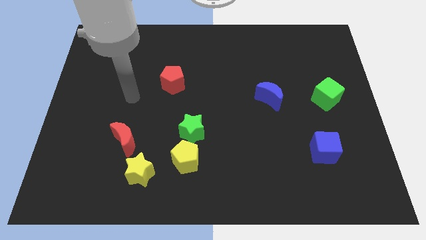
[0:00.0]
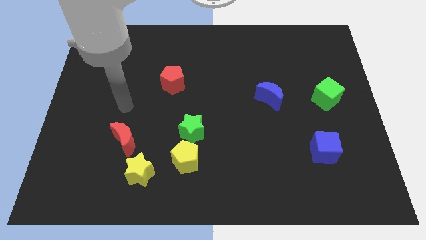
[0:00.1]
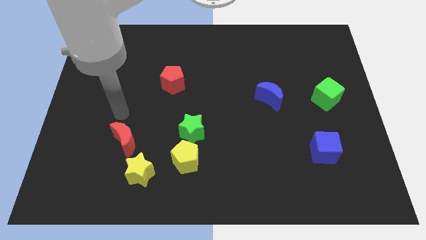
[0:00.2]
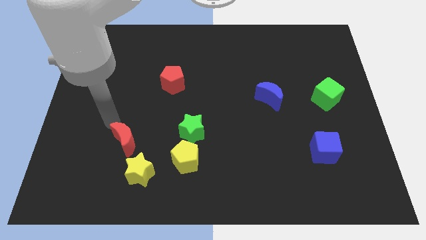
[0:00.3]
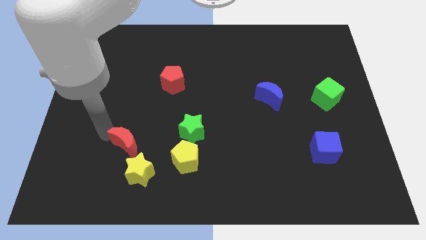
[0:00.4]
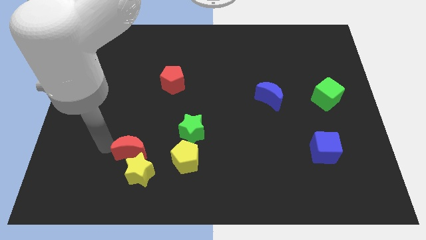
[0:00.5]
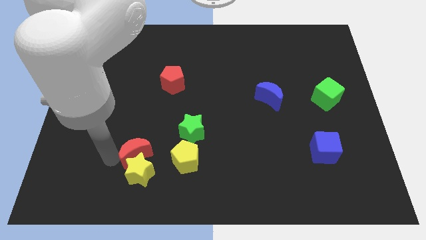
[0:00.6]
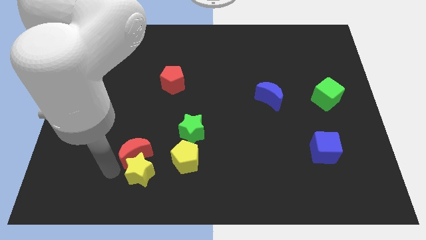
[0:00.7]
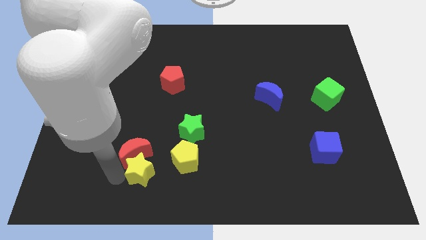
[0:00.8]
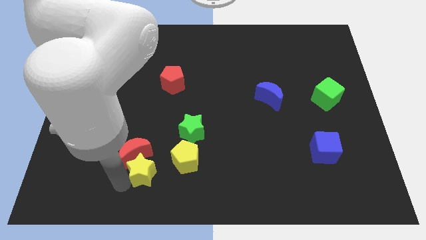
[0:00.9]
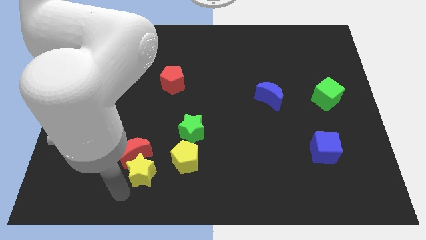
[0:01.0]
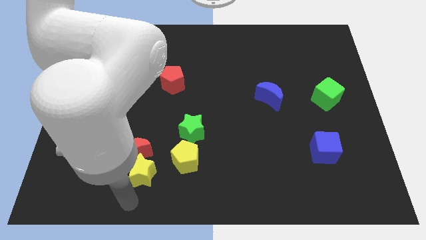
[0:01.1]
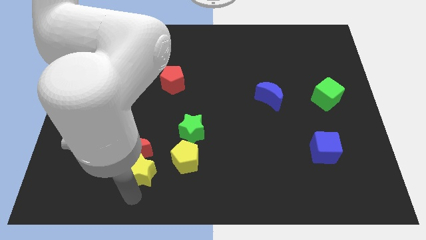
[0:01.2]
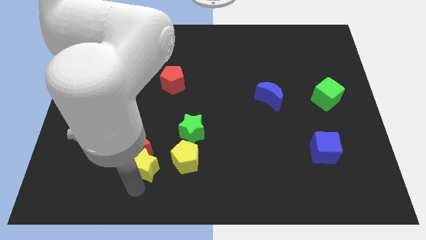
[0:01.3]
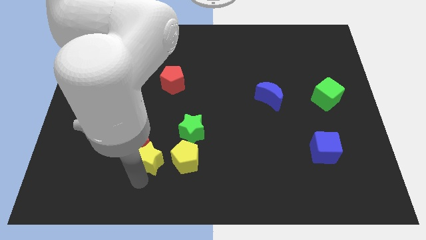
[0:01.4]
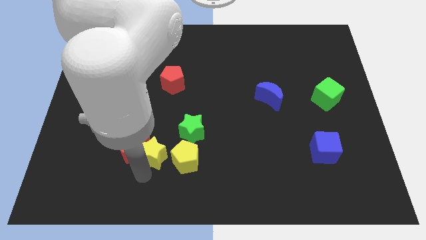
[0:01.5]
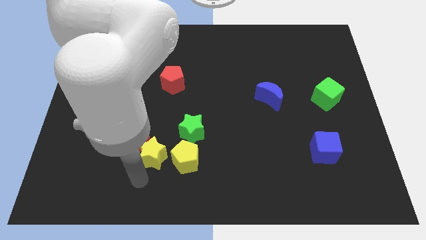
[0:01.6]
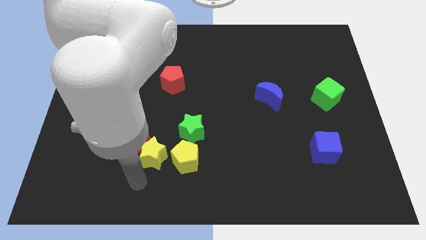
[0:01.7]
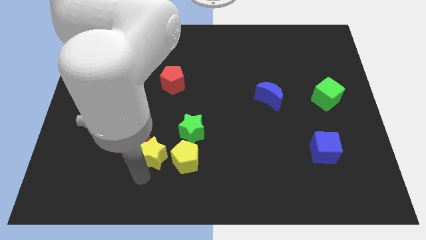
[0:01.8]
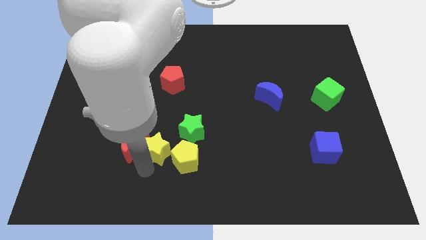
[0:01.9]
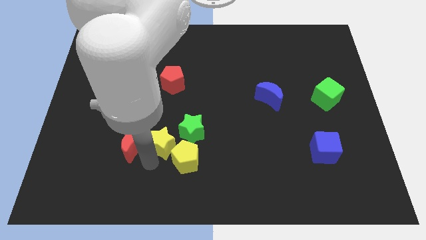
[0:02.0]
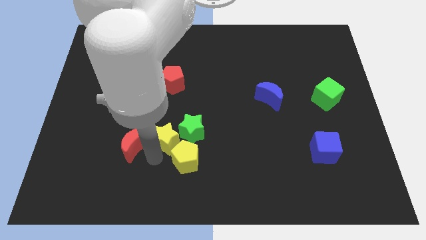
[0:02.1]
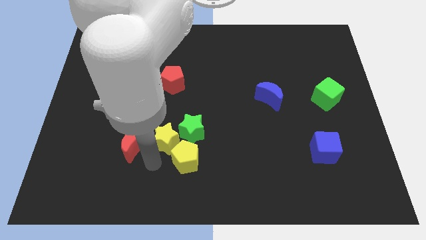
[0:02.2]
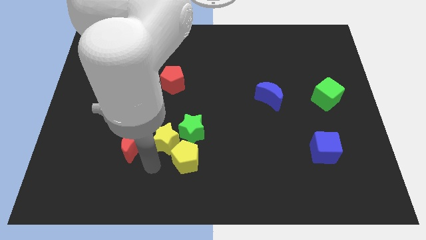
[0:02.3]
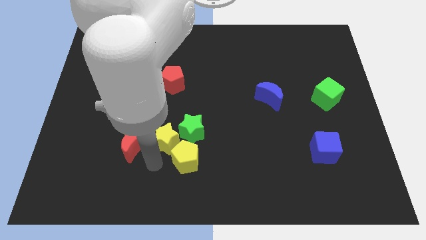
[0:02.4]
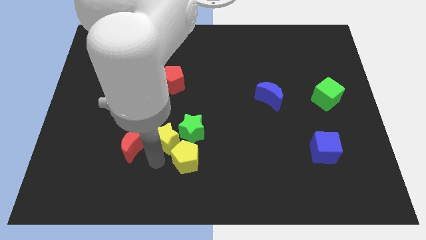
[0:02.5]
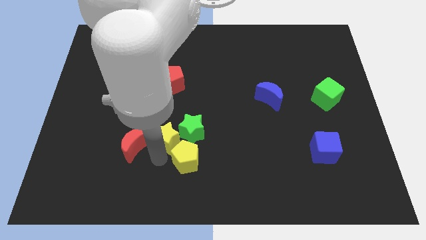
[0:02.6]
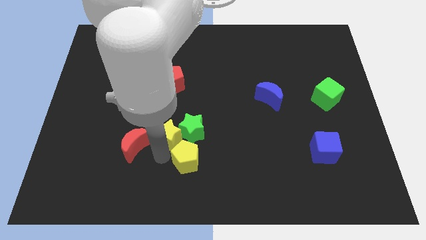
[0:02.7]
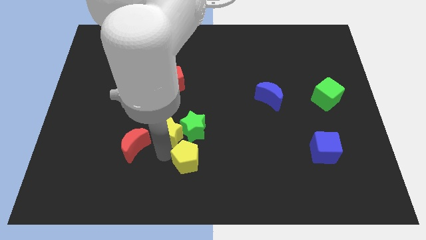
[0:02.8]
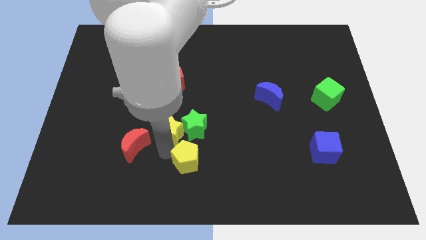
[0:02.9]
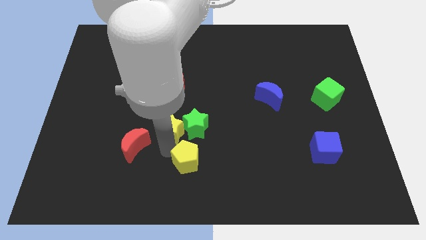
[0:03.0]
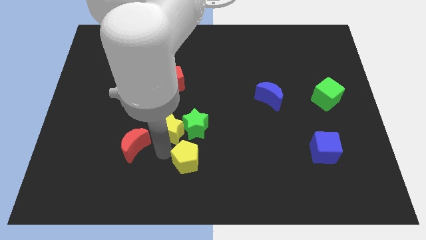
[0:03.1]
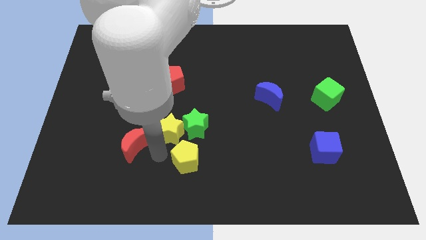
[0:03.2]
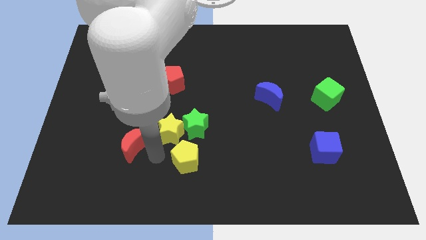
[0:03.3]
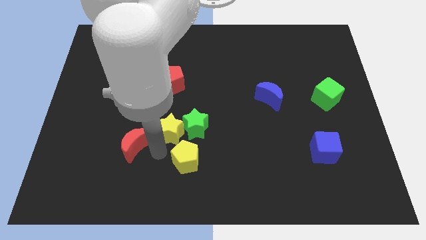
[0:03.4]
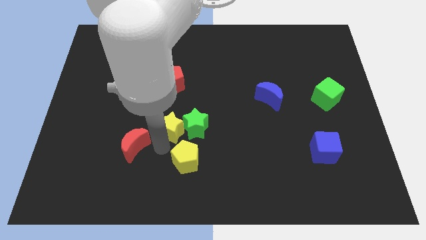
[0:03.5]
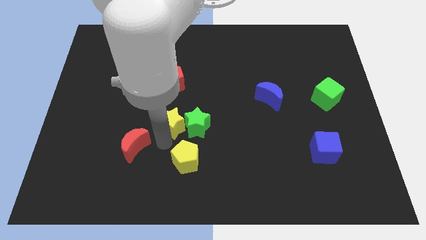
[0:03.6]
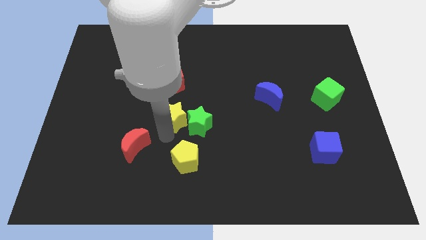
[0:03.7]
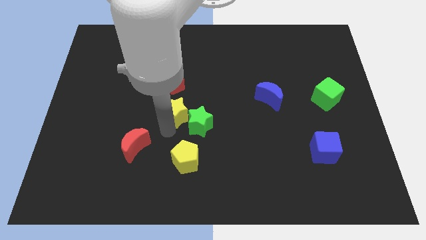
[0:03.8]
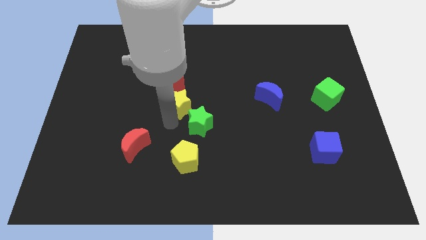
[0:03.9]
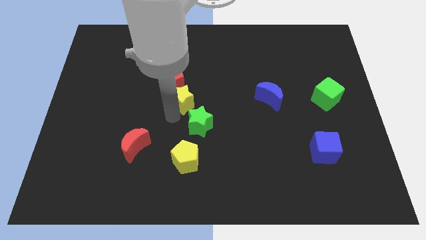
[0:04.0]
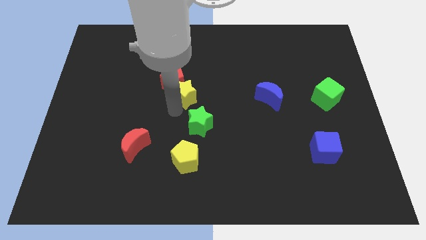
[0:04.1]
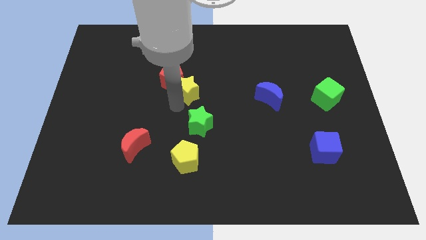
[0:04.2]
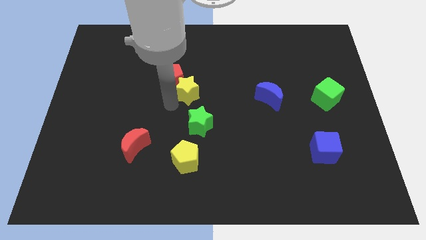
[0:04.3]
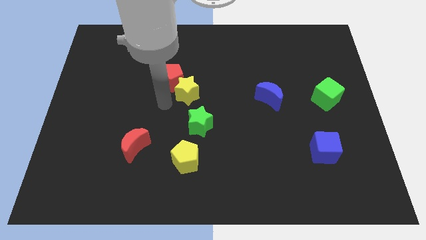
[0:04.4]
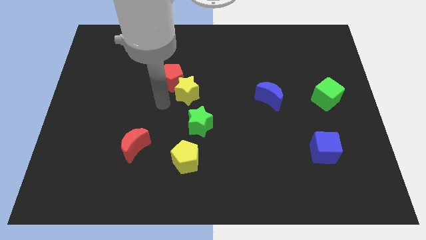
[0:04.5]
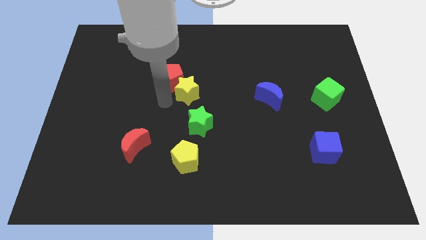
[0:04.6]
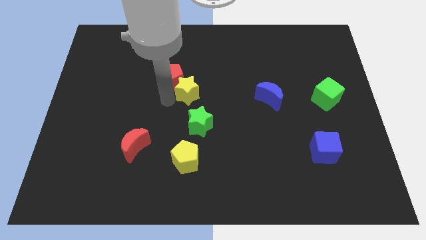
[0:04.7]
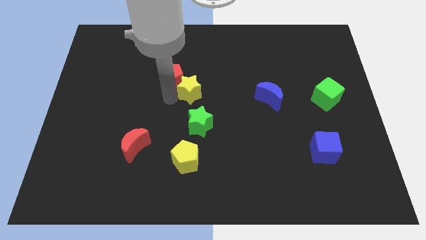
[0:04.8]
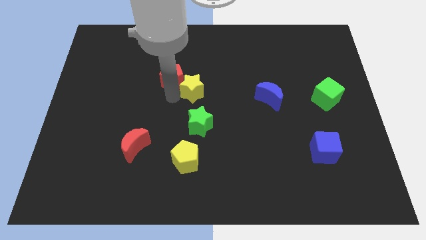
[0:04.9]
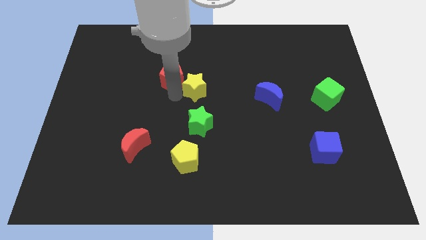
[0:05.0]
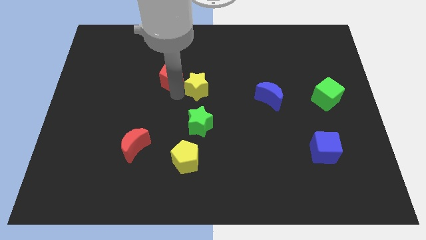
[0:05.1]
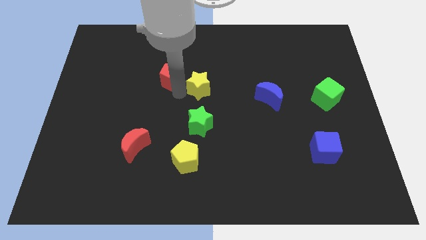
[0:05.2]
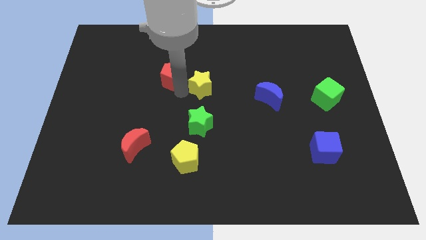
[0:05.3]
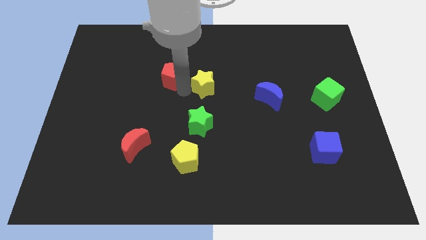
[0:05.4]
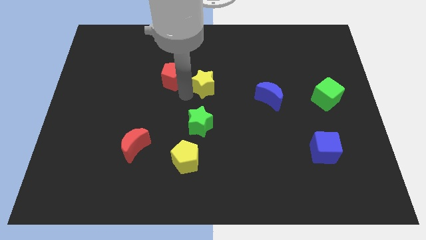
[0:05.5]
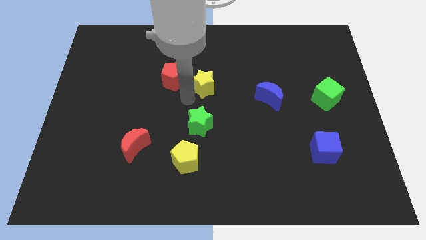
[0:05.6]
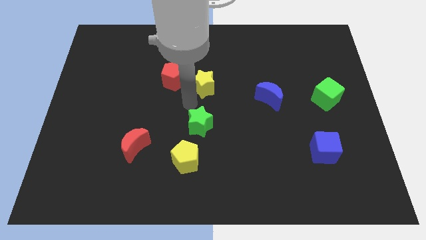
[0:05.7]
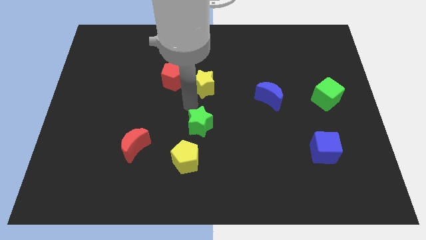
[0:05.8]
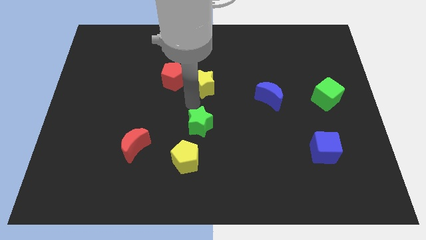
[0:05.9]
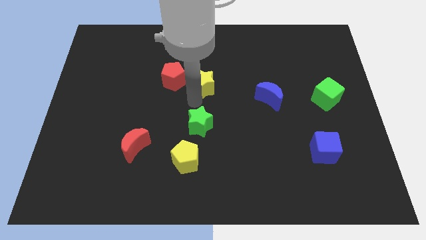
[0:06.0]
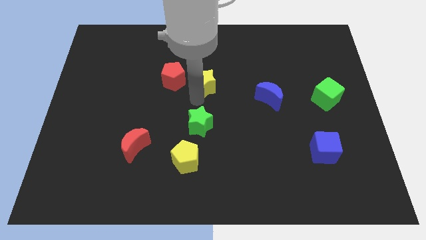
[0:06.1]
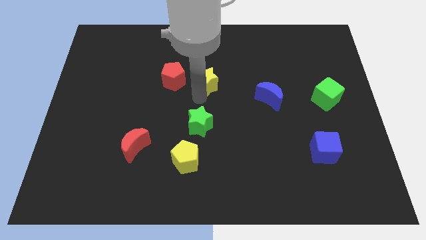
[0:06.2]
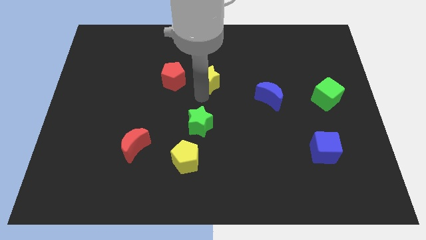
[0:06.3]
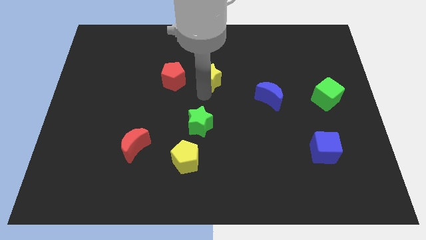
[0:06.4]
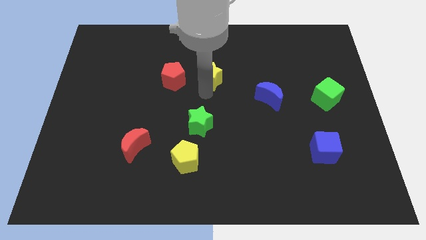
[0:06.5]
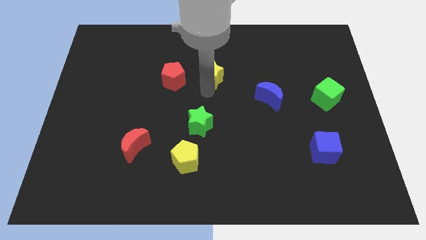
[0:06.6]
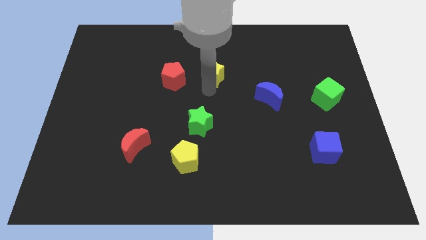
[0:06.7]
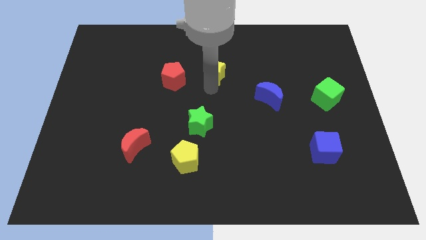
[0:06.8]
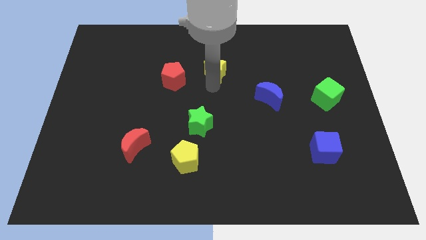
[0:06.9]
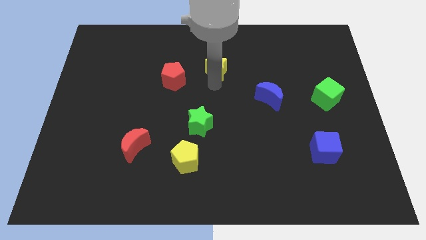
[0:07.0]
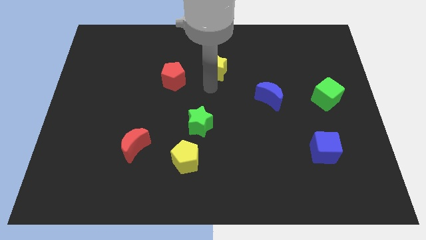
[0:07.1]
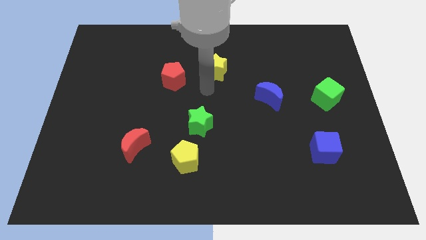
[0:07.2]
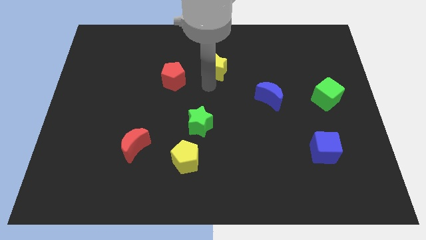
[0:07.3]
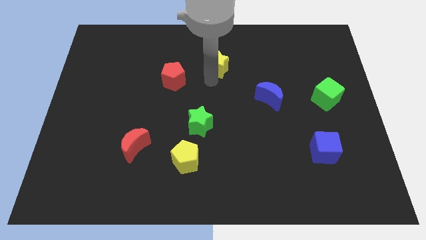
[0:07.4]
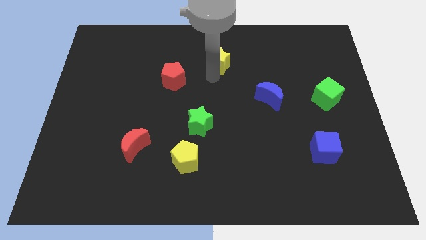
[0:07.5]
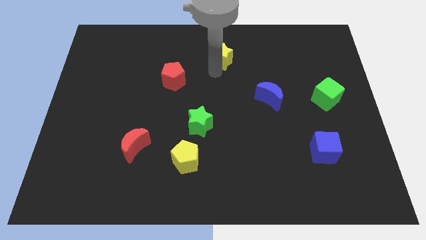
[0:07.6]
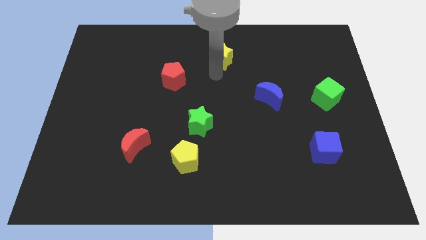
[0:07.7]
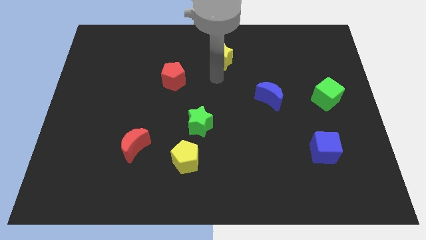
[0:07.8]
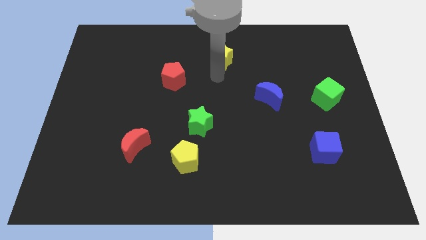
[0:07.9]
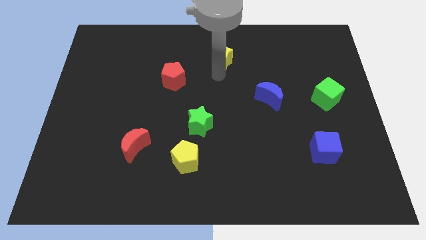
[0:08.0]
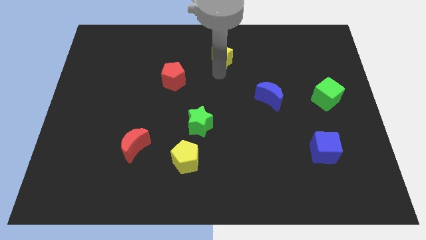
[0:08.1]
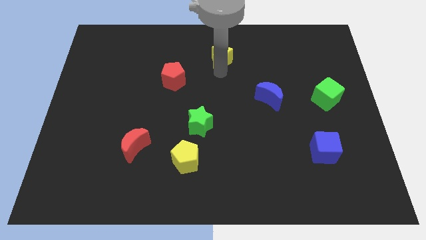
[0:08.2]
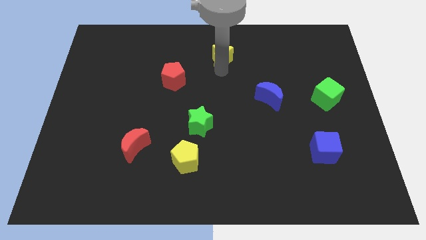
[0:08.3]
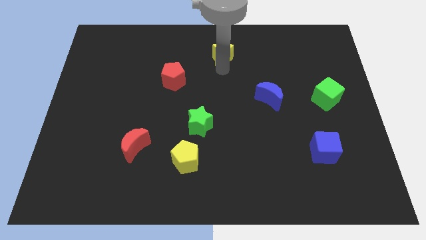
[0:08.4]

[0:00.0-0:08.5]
put the yellow star to the top side
